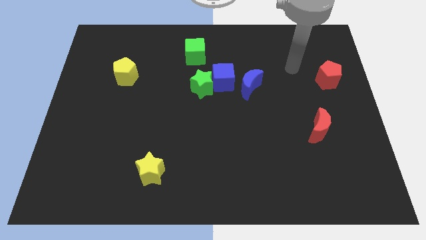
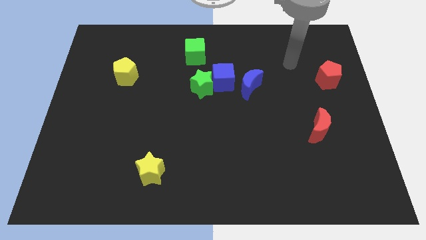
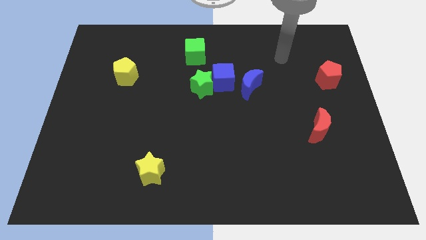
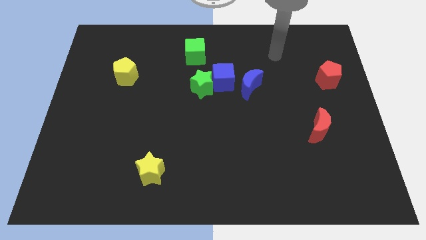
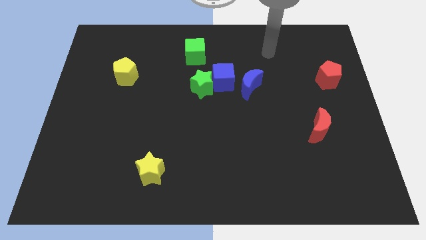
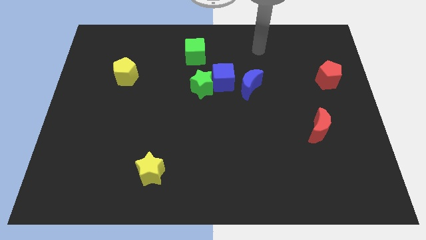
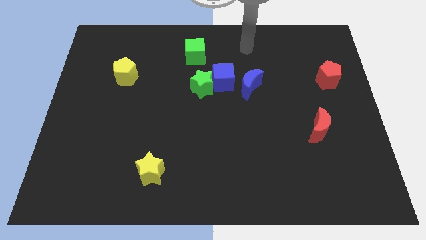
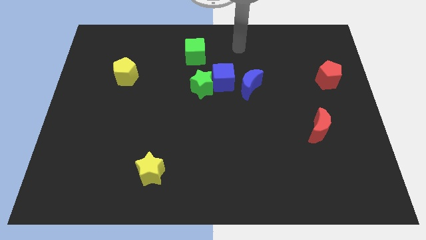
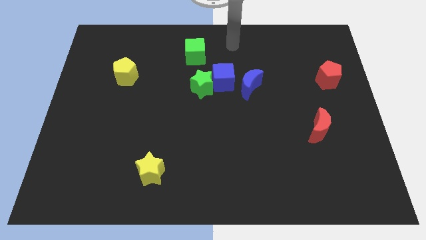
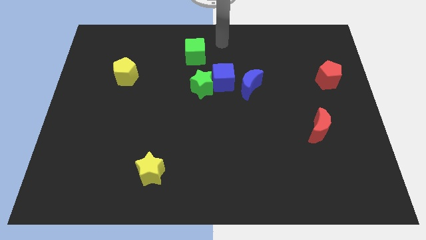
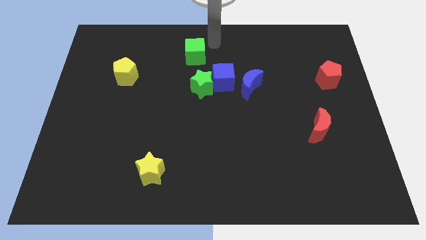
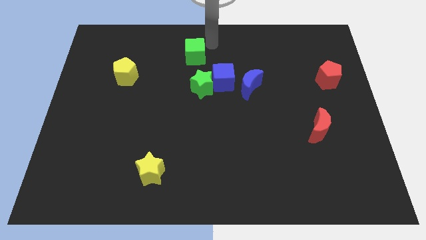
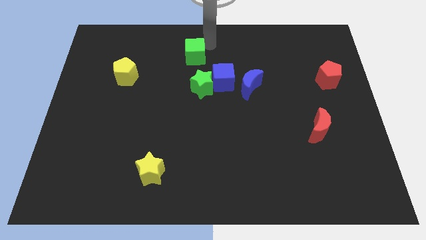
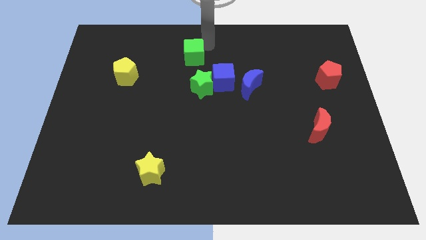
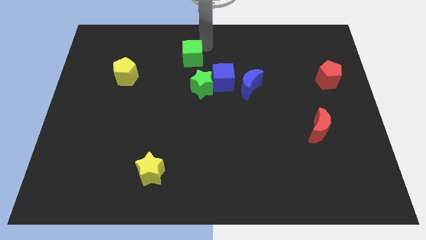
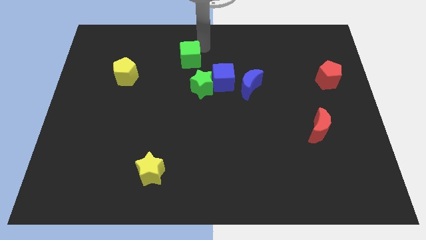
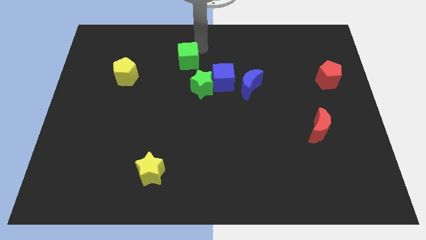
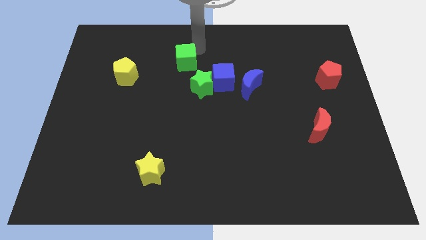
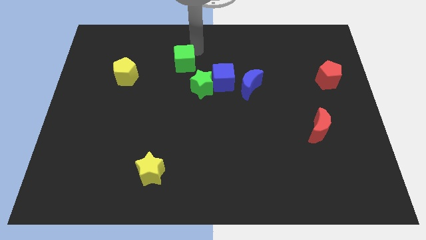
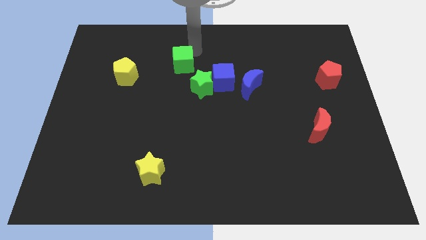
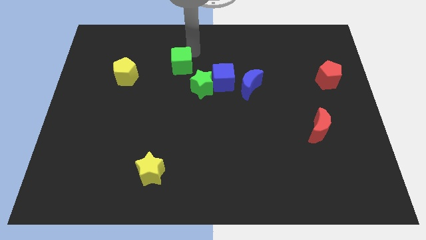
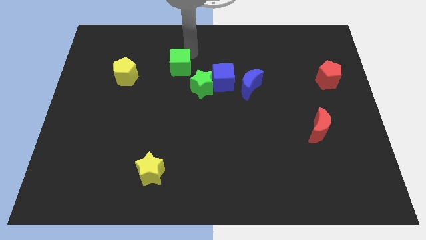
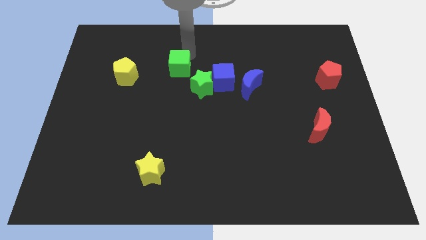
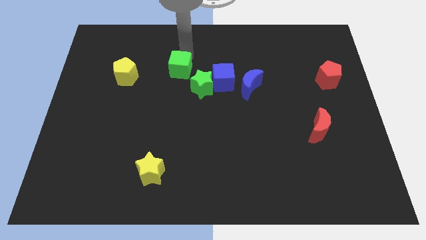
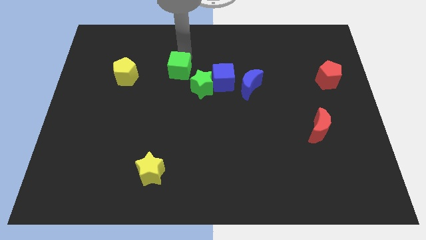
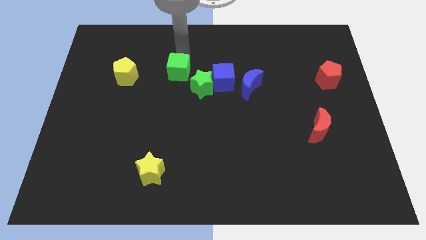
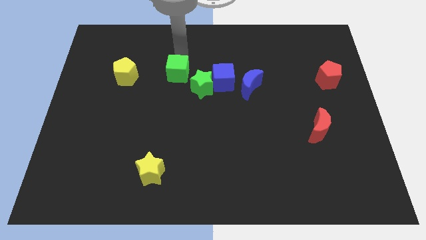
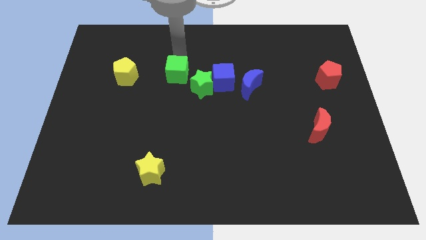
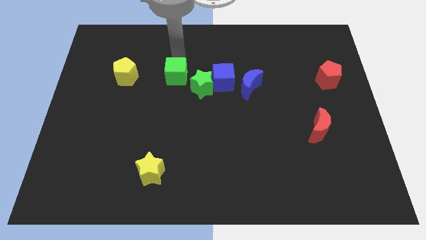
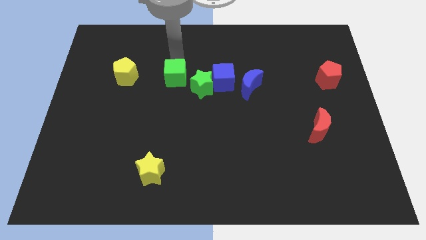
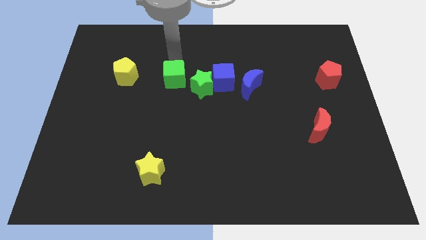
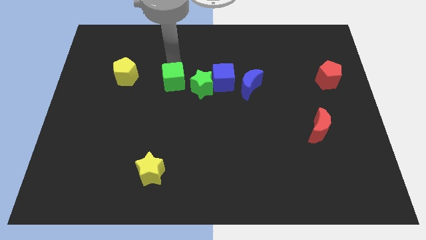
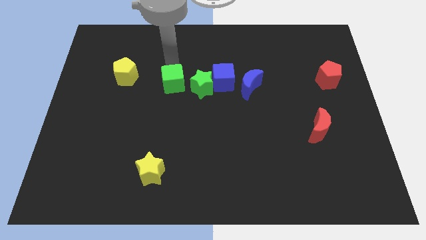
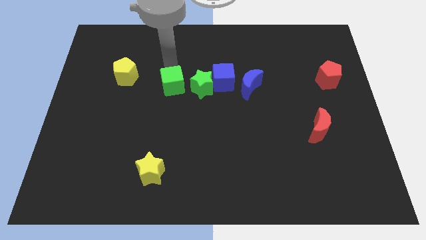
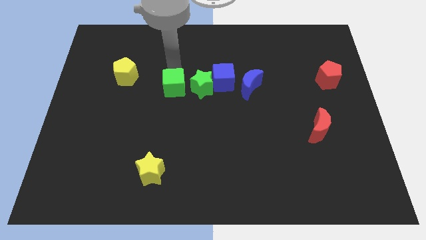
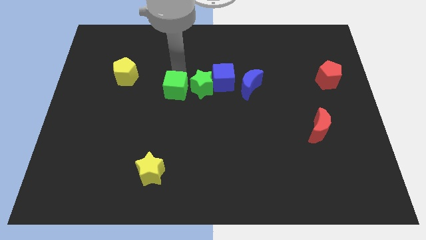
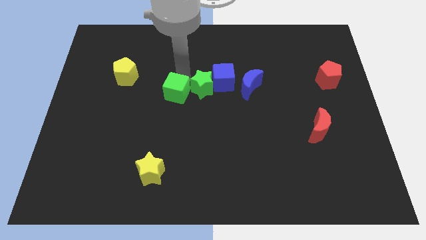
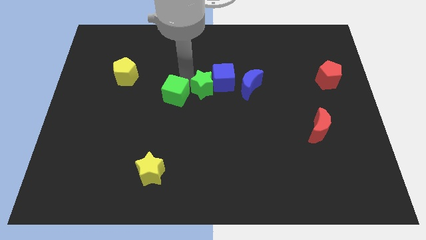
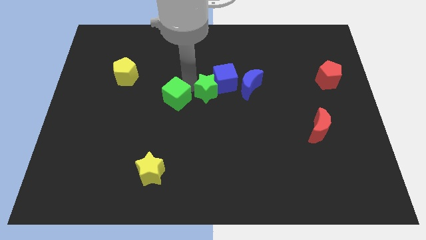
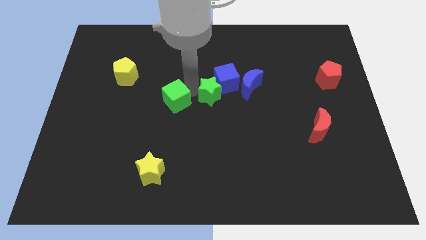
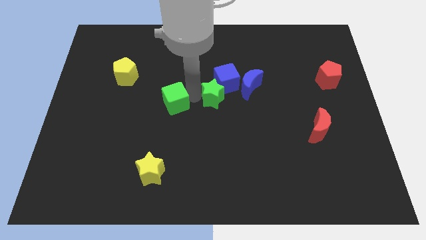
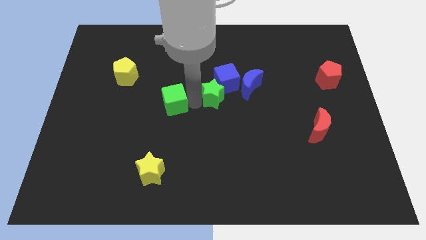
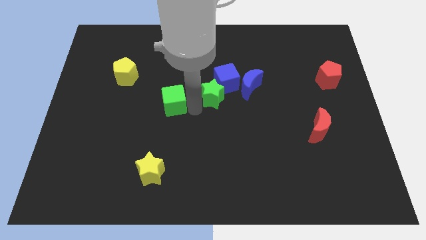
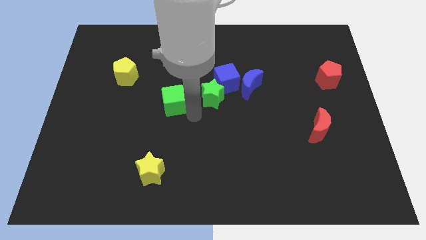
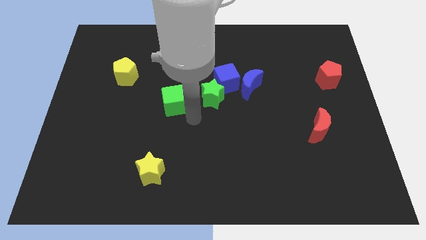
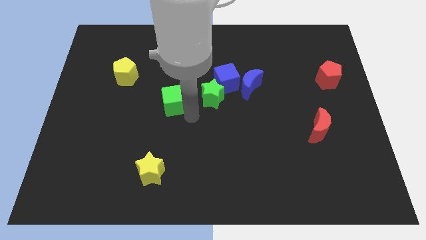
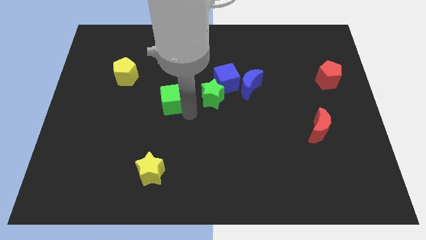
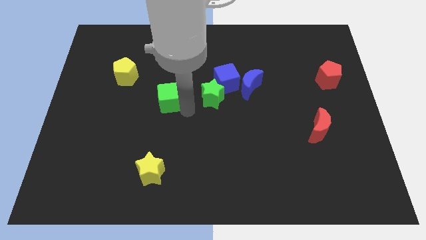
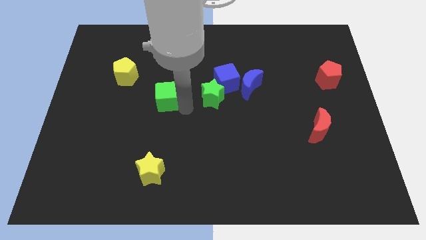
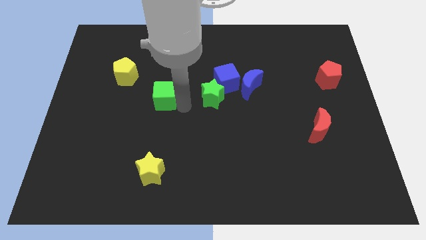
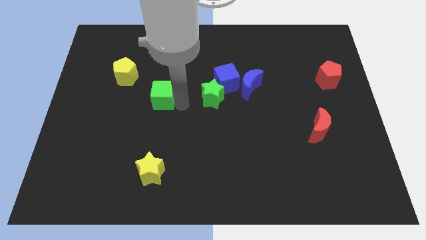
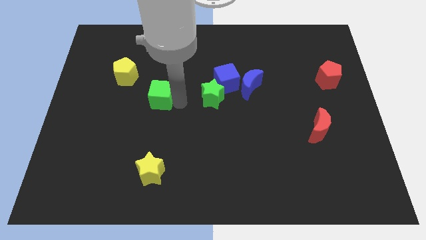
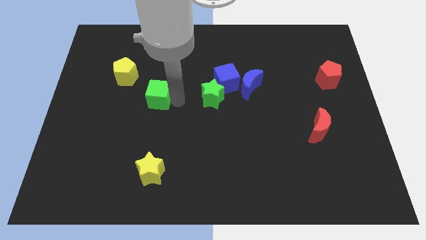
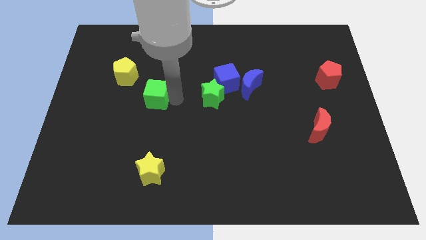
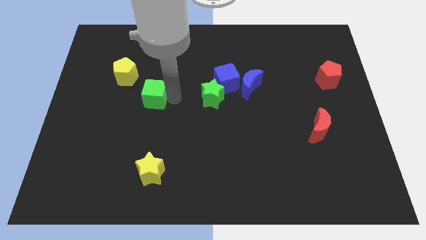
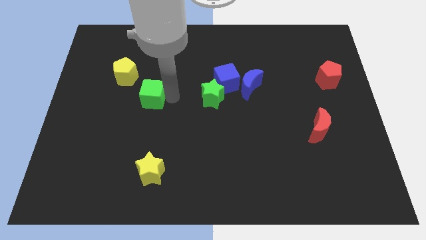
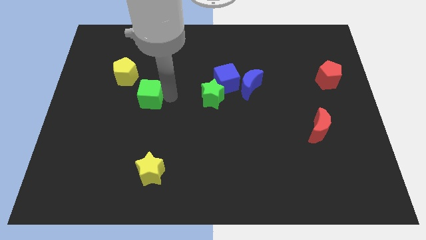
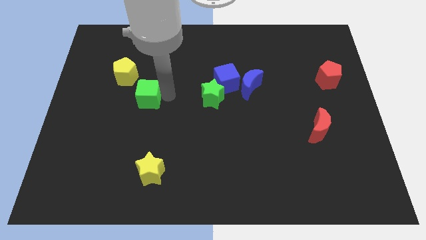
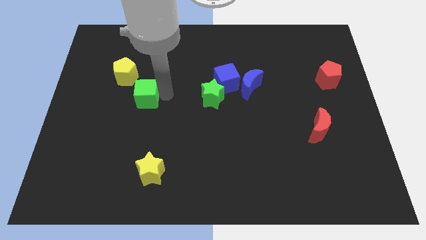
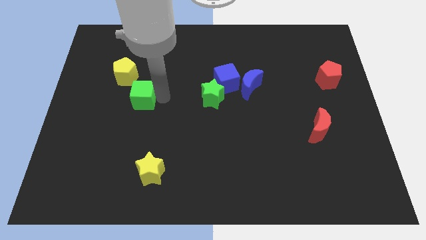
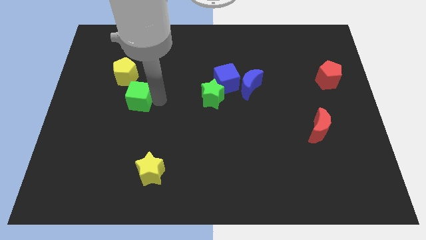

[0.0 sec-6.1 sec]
slide the green cube down and left

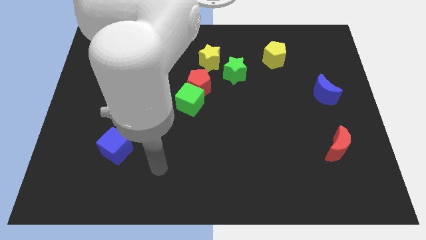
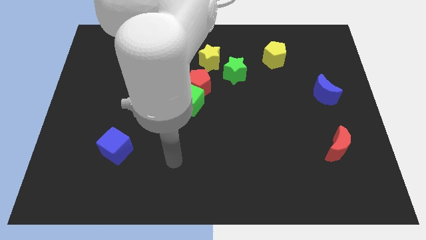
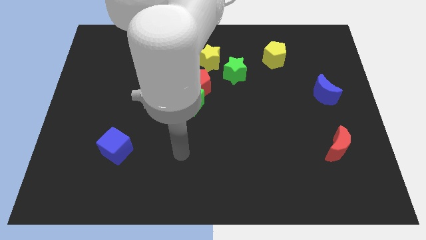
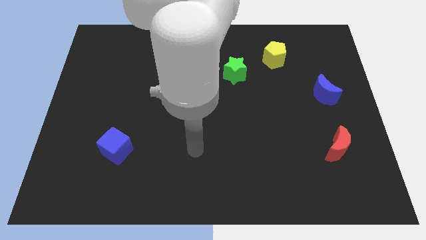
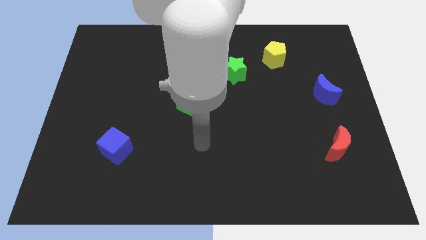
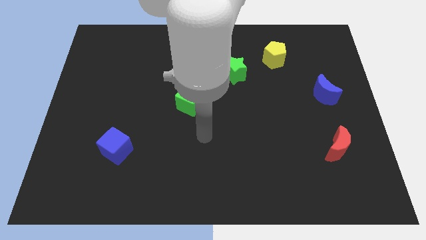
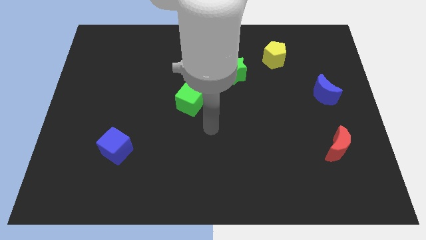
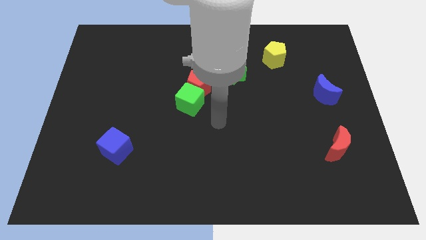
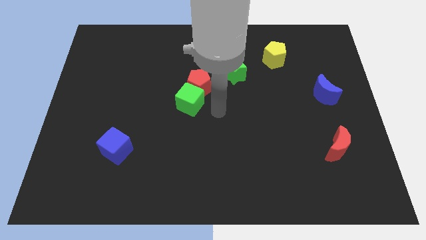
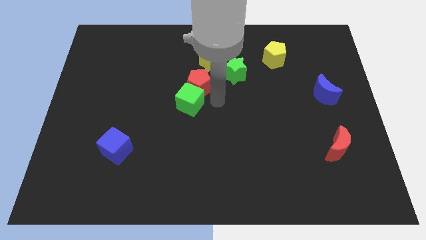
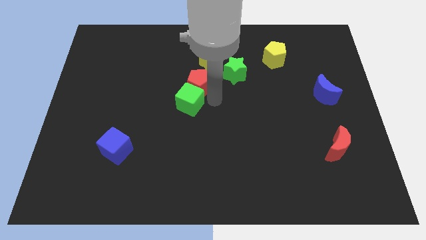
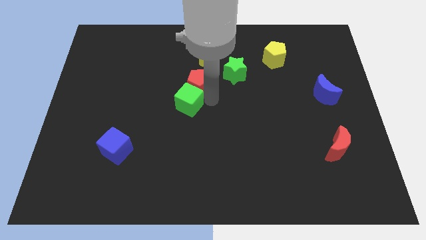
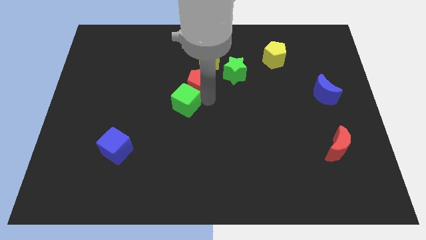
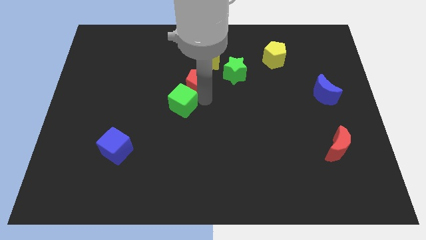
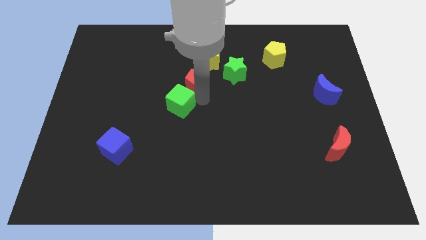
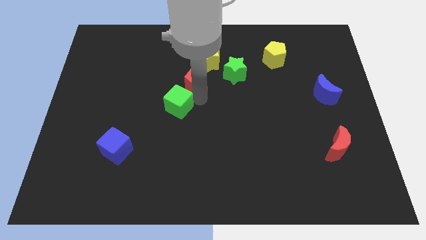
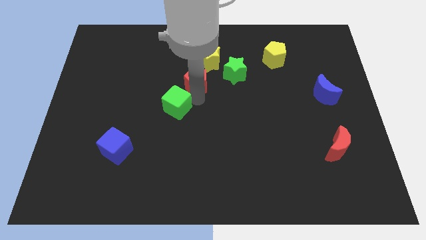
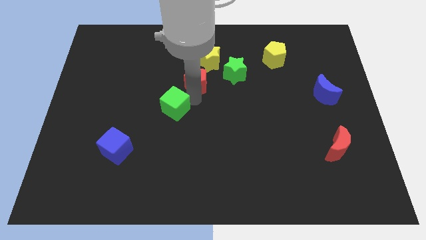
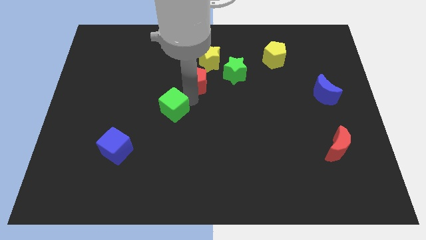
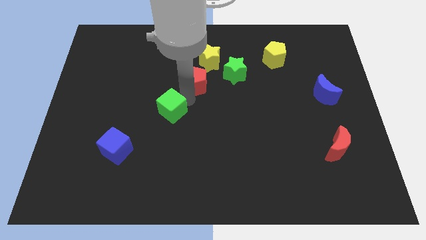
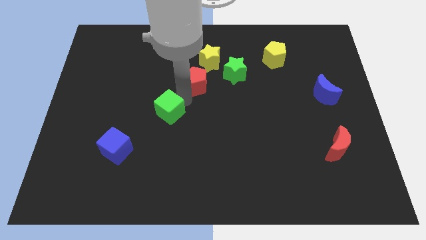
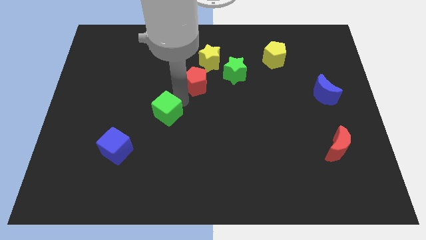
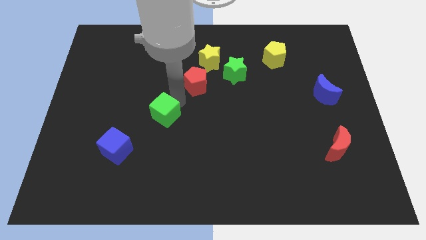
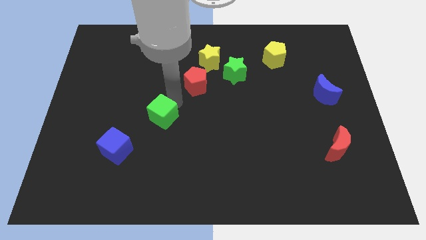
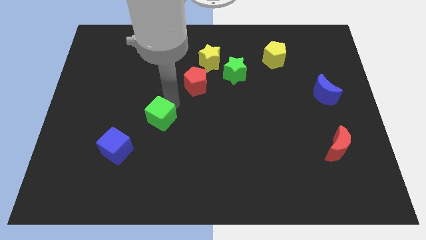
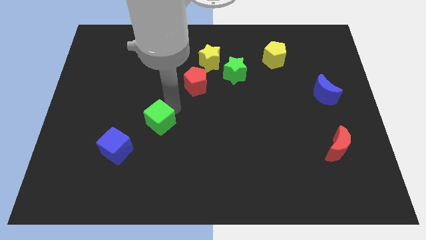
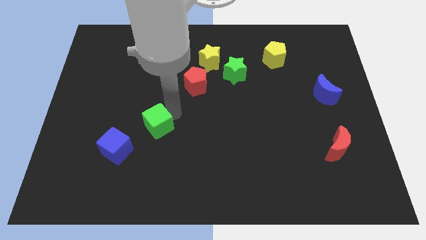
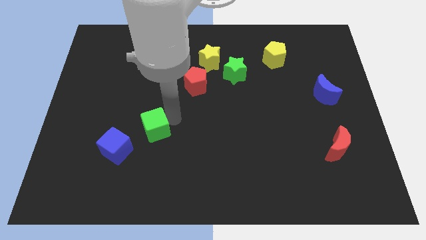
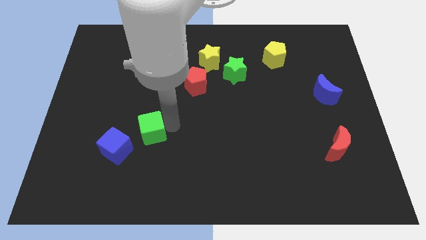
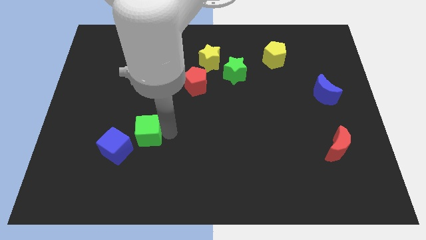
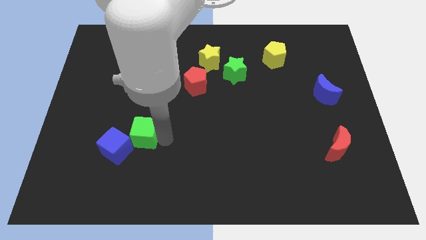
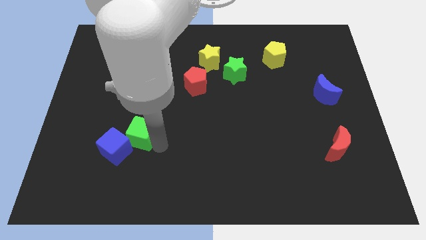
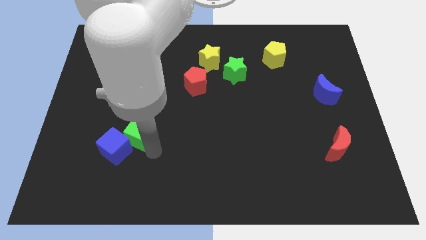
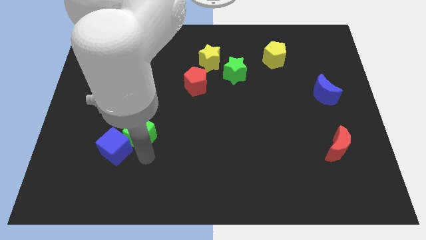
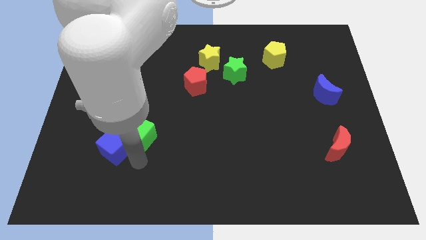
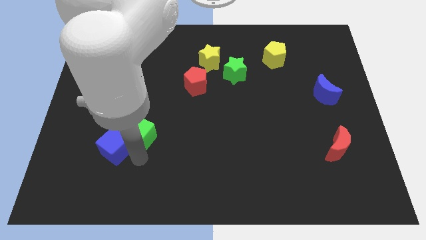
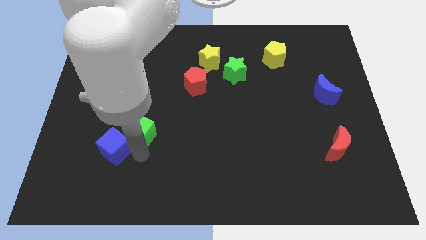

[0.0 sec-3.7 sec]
move the green cube left somewhat
